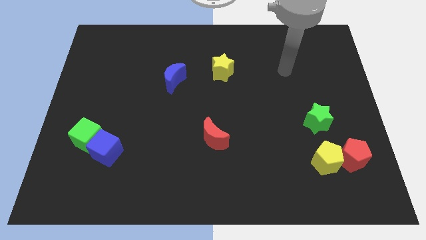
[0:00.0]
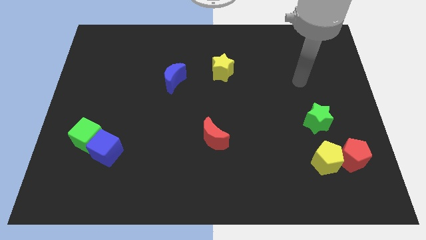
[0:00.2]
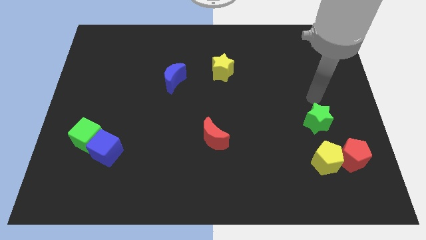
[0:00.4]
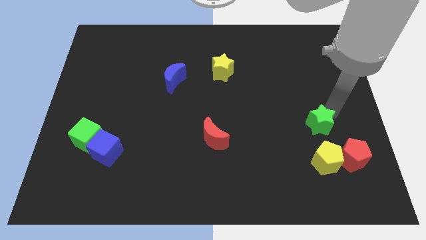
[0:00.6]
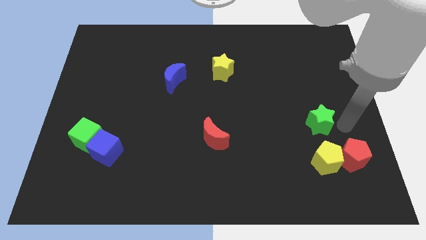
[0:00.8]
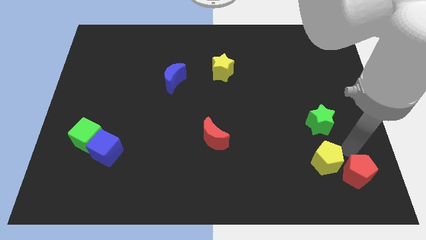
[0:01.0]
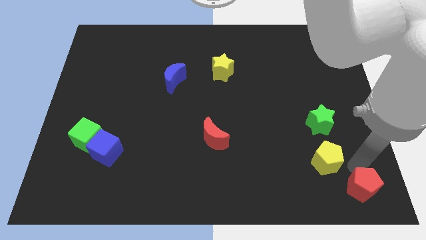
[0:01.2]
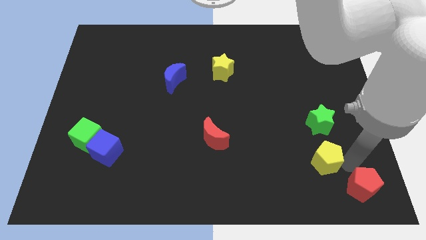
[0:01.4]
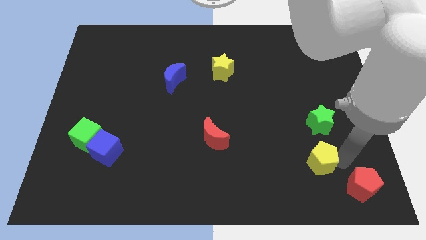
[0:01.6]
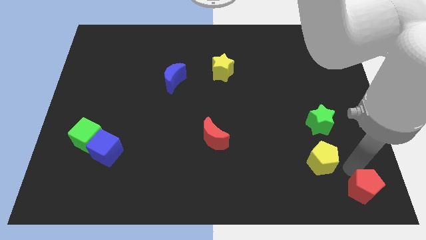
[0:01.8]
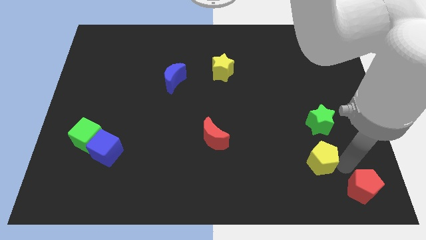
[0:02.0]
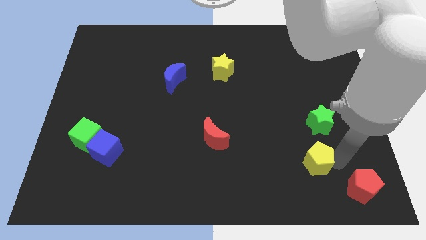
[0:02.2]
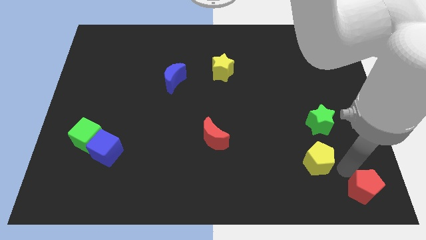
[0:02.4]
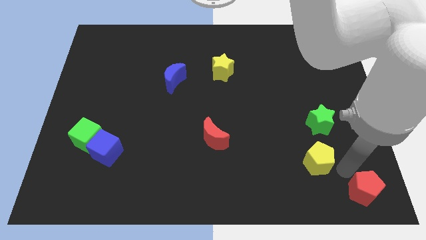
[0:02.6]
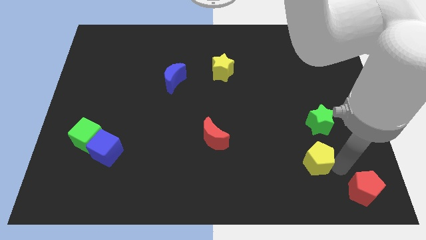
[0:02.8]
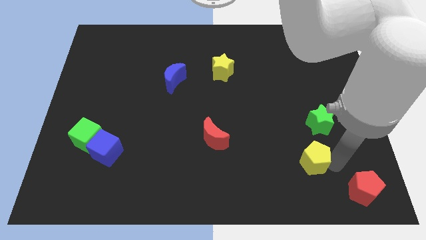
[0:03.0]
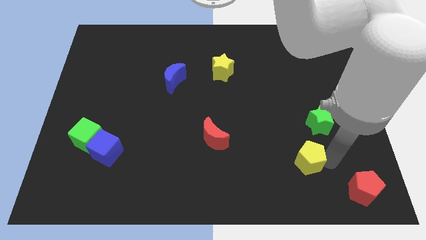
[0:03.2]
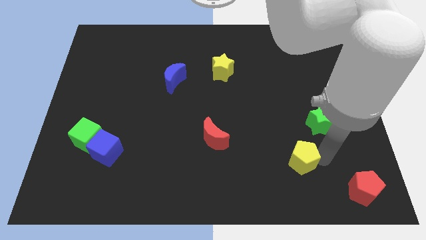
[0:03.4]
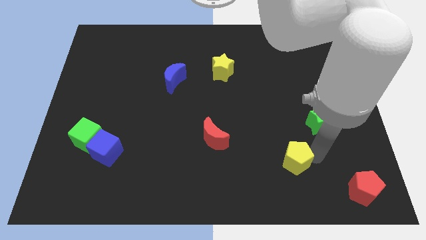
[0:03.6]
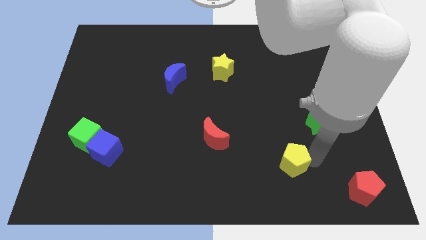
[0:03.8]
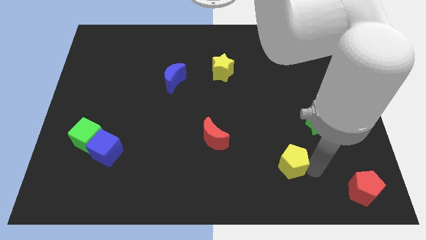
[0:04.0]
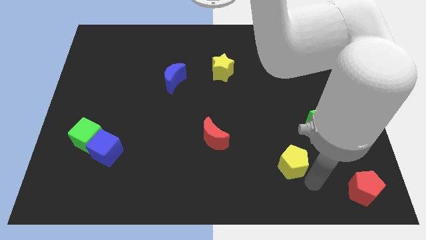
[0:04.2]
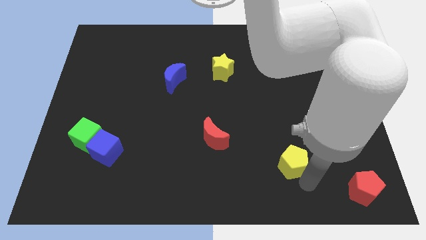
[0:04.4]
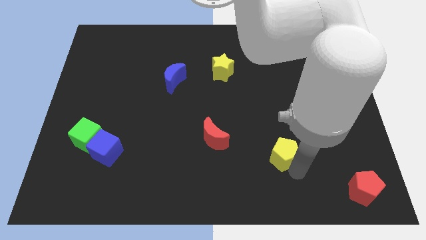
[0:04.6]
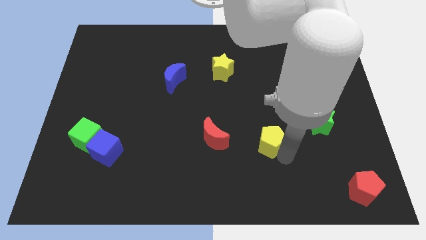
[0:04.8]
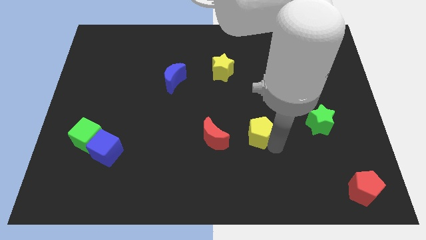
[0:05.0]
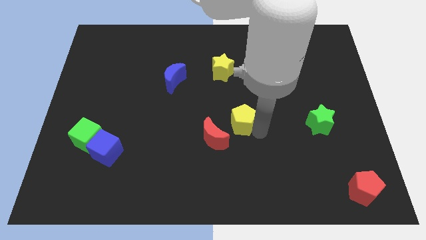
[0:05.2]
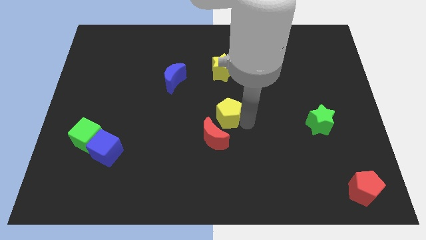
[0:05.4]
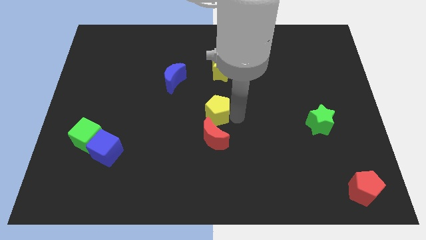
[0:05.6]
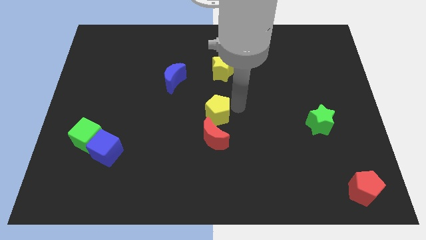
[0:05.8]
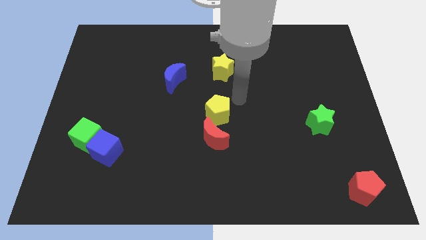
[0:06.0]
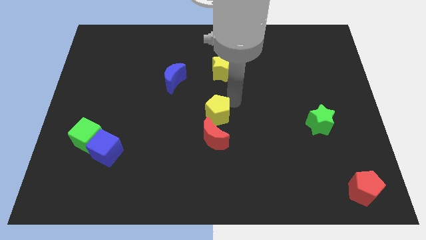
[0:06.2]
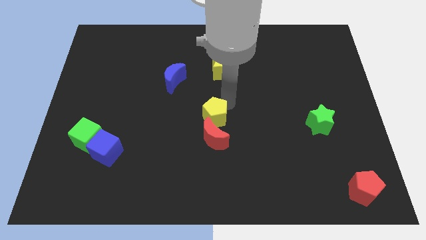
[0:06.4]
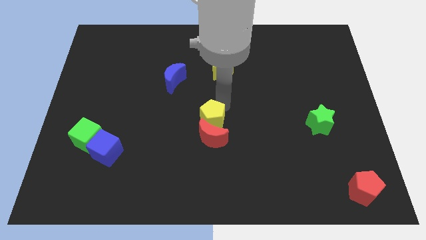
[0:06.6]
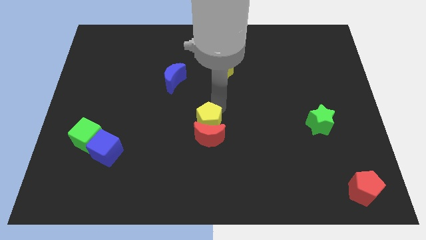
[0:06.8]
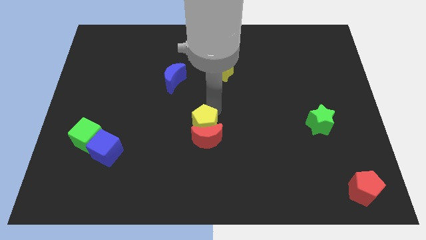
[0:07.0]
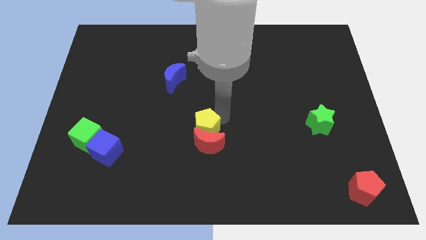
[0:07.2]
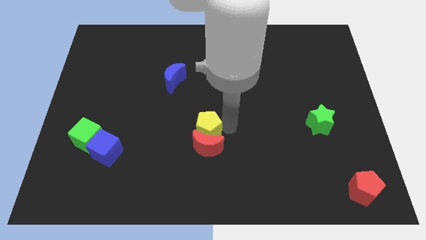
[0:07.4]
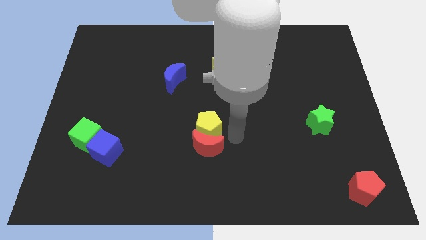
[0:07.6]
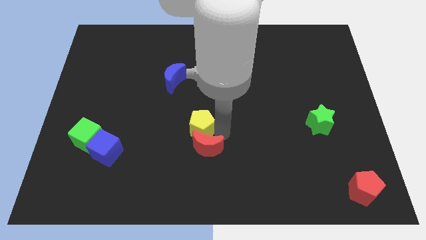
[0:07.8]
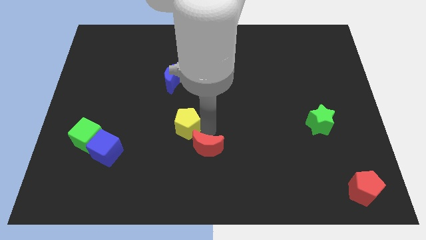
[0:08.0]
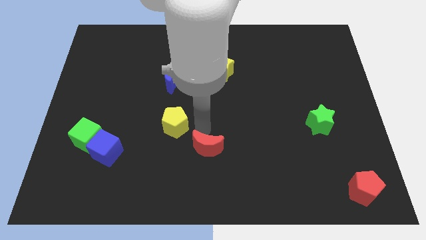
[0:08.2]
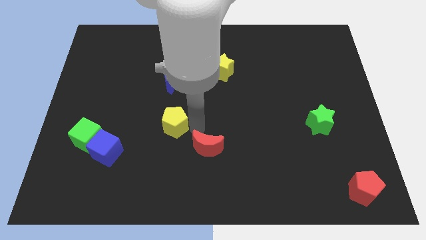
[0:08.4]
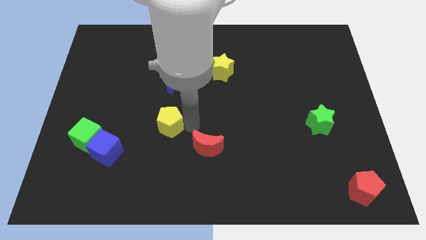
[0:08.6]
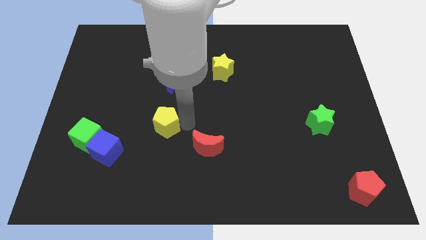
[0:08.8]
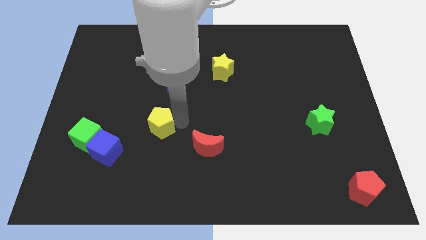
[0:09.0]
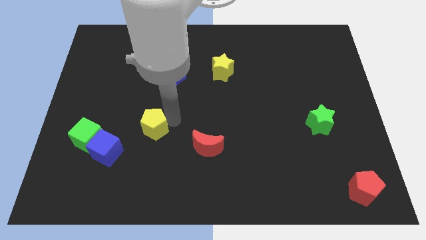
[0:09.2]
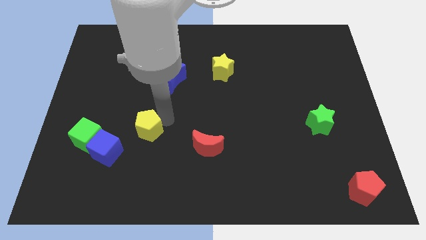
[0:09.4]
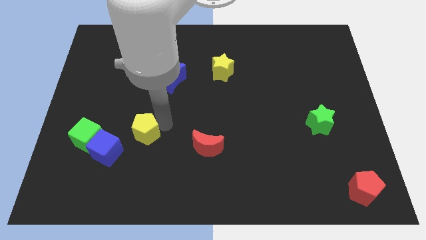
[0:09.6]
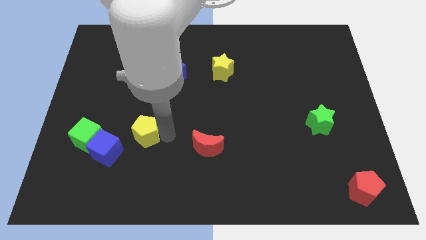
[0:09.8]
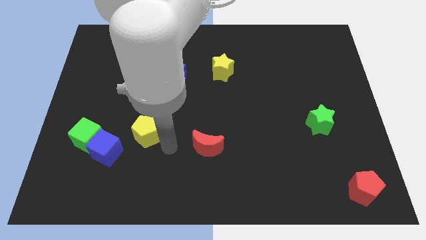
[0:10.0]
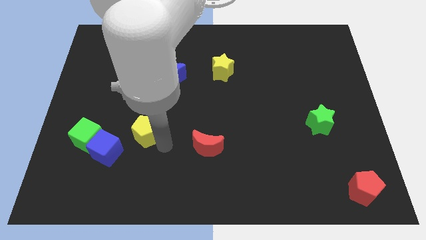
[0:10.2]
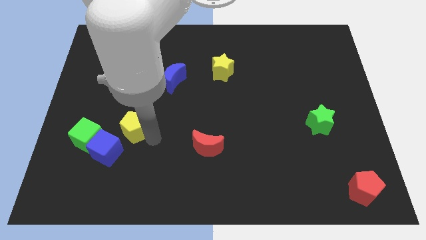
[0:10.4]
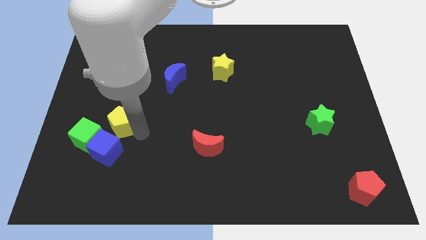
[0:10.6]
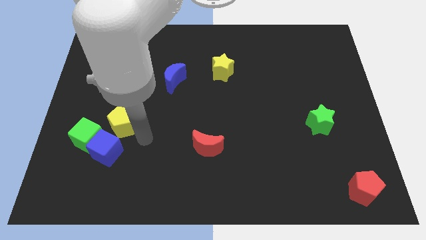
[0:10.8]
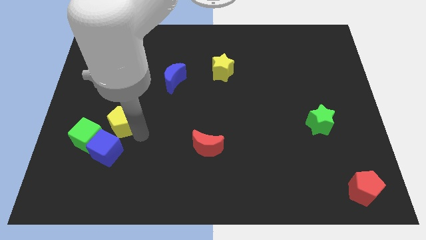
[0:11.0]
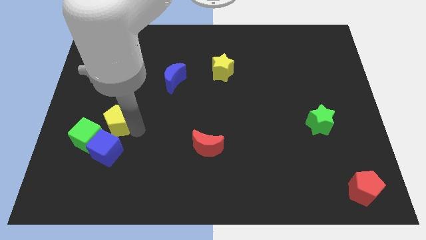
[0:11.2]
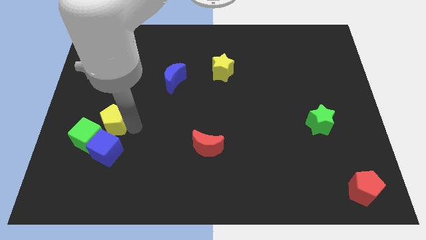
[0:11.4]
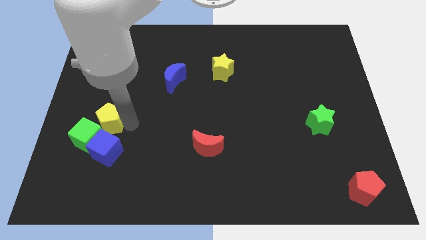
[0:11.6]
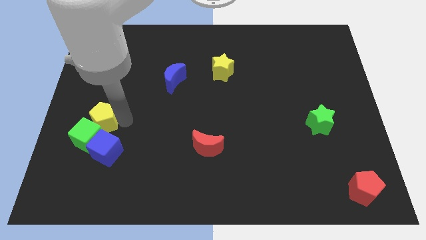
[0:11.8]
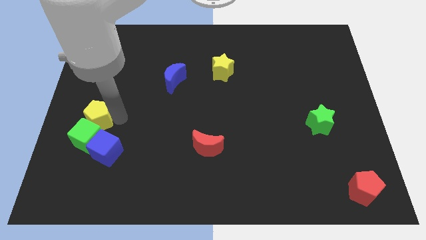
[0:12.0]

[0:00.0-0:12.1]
slide the yellow pentagon to the left side of the board

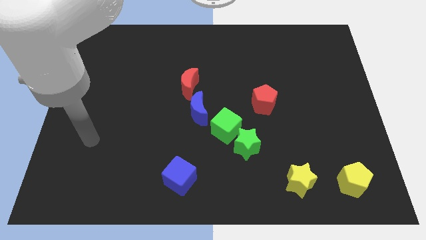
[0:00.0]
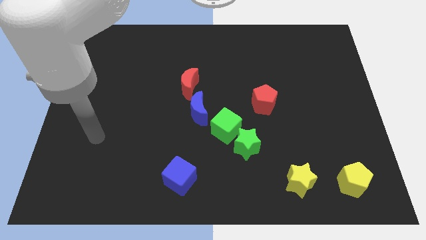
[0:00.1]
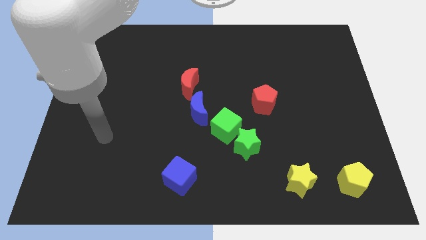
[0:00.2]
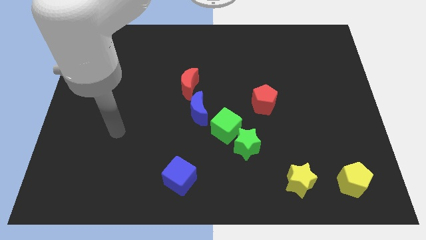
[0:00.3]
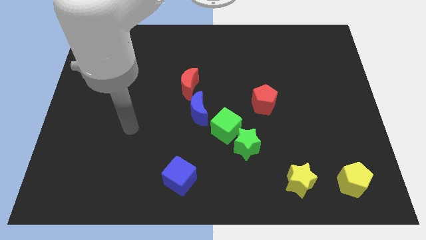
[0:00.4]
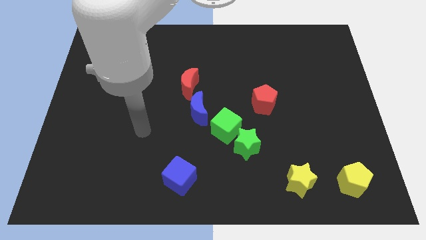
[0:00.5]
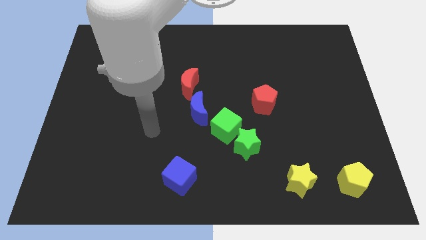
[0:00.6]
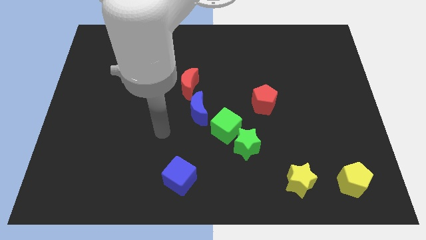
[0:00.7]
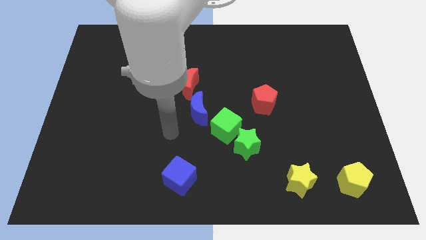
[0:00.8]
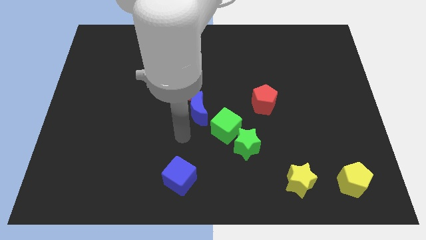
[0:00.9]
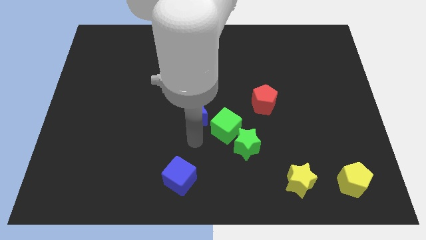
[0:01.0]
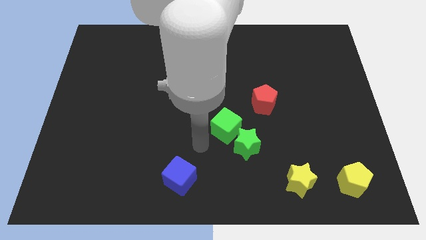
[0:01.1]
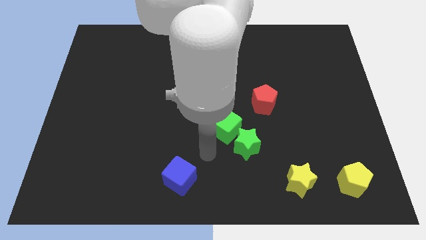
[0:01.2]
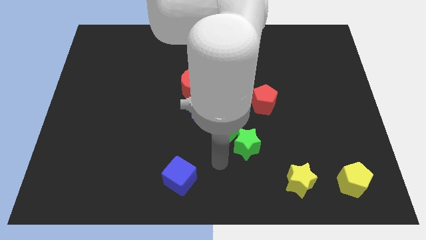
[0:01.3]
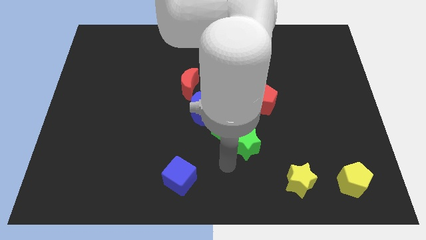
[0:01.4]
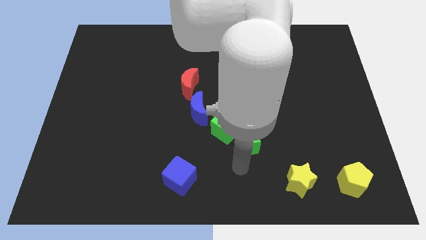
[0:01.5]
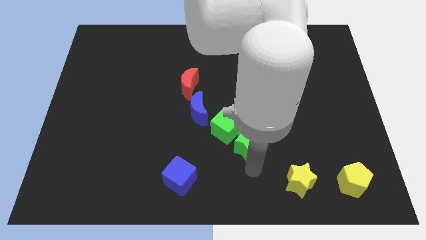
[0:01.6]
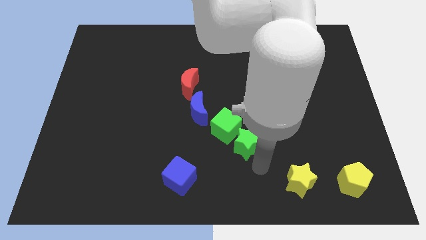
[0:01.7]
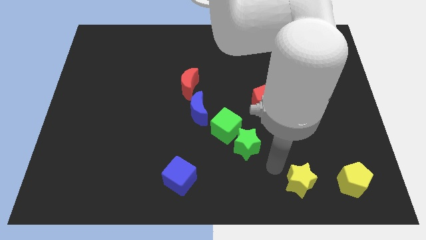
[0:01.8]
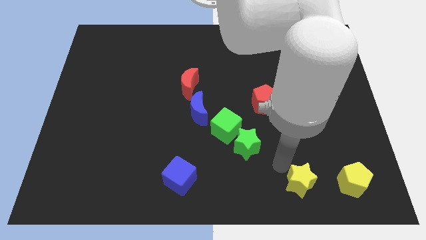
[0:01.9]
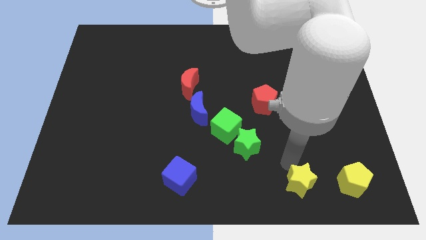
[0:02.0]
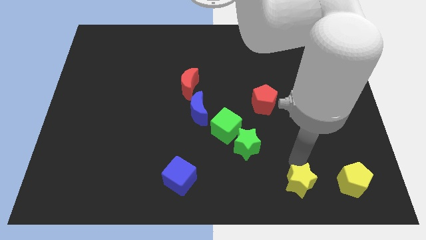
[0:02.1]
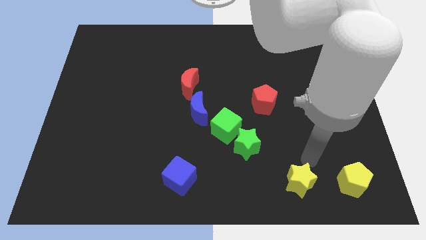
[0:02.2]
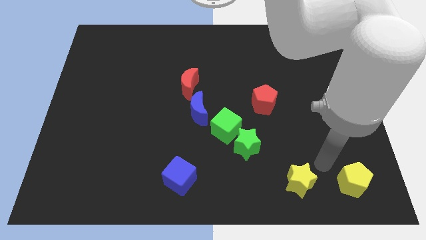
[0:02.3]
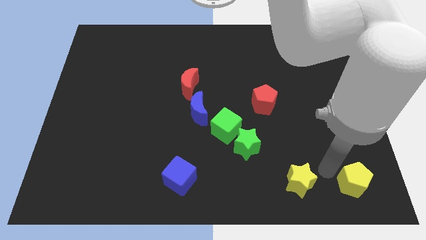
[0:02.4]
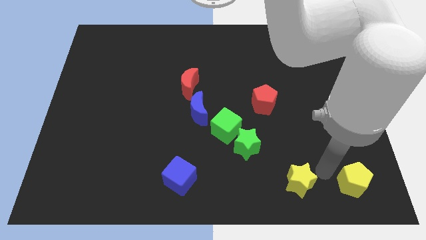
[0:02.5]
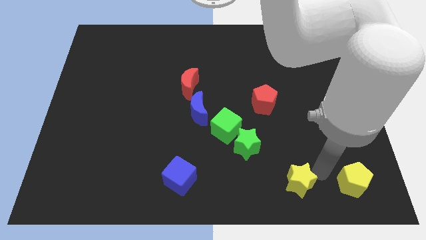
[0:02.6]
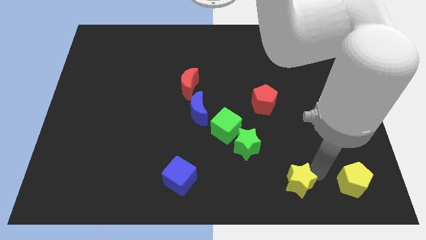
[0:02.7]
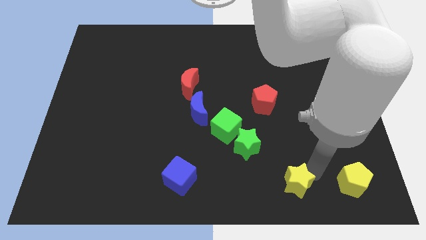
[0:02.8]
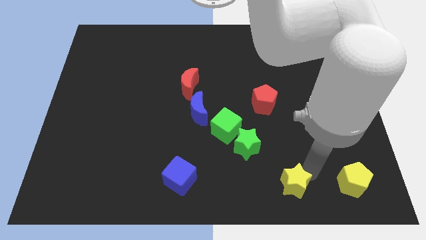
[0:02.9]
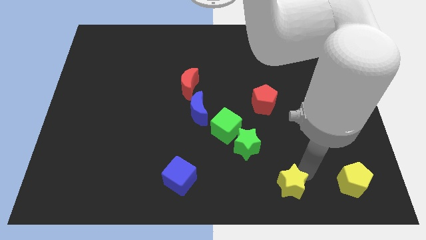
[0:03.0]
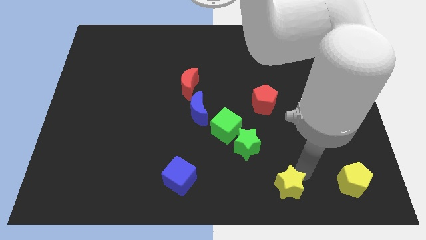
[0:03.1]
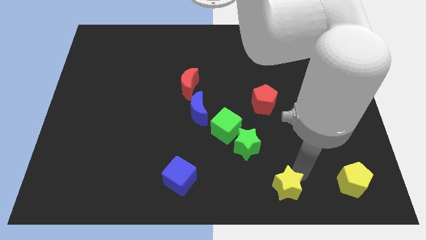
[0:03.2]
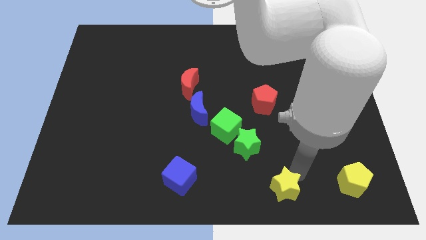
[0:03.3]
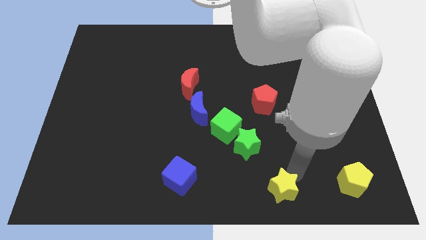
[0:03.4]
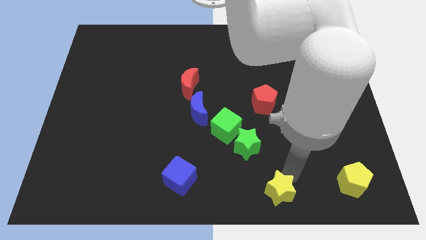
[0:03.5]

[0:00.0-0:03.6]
move the yellow star to the bottom side
